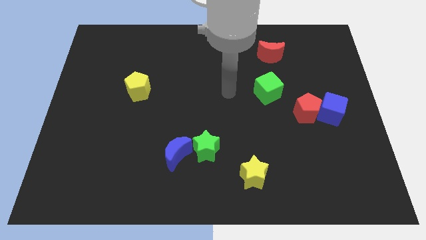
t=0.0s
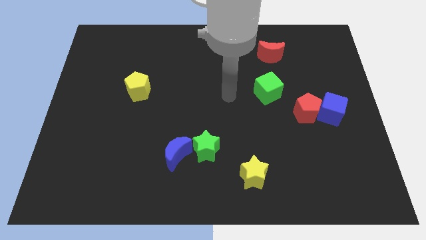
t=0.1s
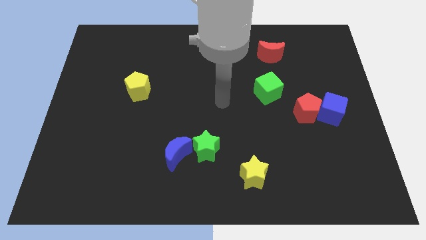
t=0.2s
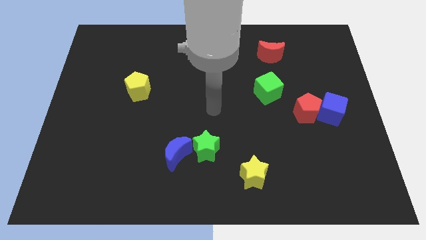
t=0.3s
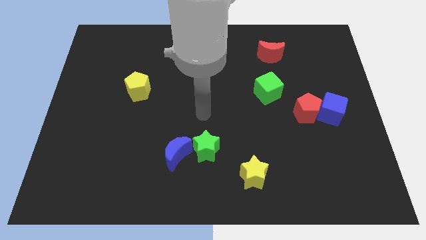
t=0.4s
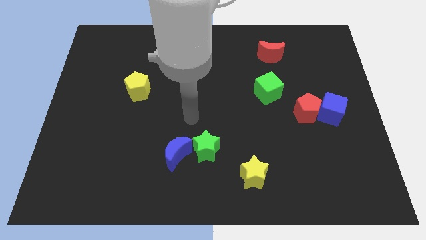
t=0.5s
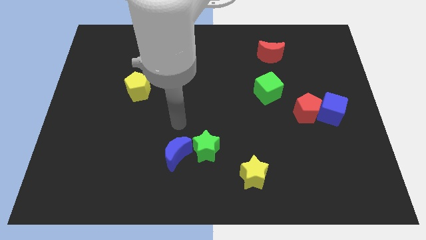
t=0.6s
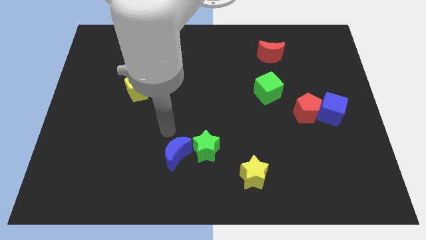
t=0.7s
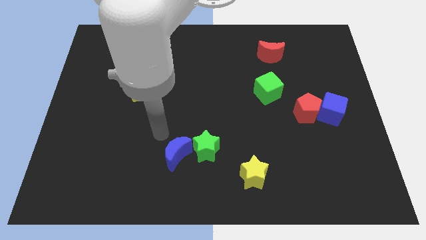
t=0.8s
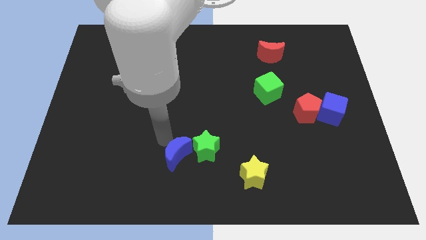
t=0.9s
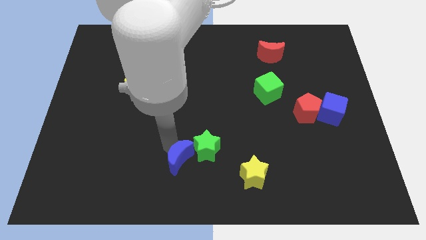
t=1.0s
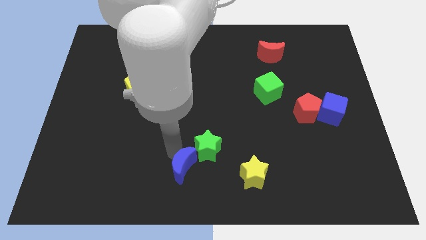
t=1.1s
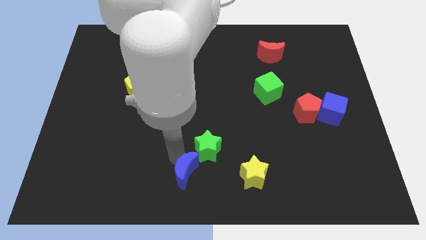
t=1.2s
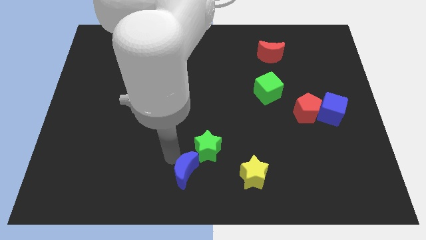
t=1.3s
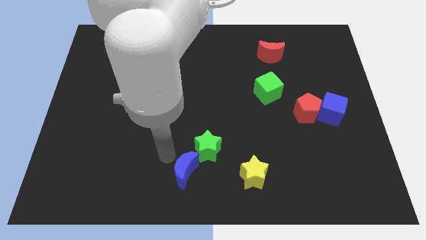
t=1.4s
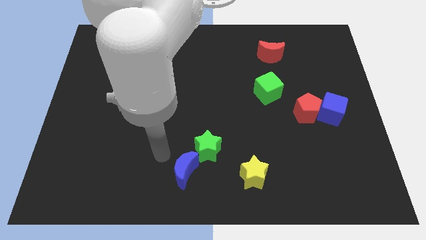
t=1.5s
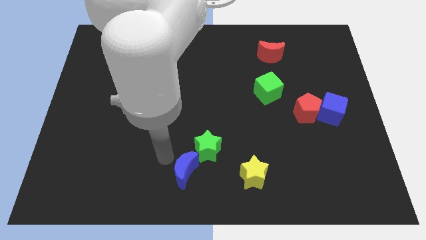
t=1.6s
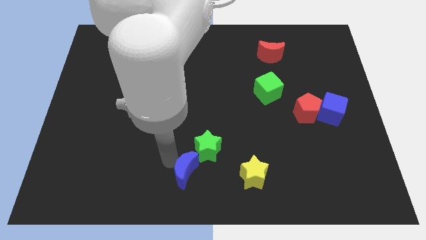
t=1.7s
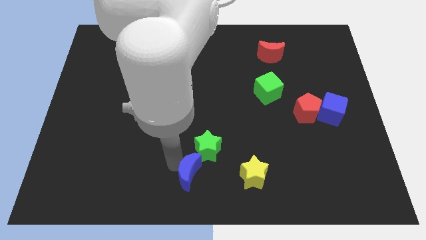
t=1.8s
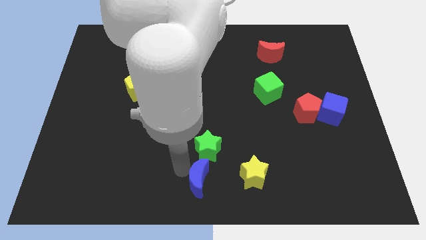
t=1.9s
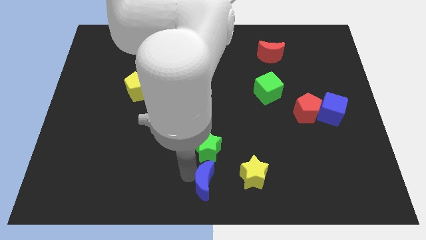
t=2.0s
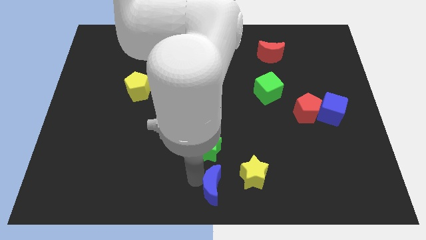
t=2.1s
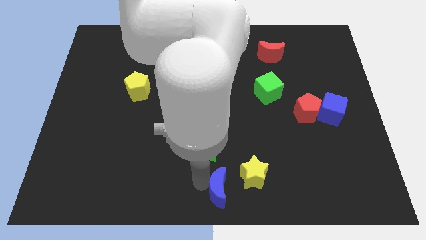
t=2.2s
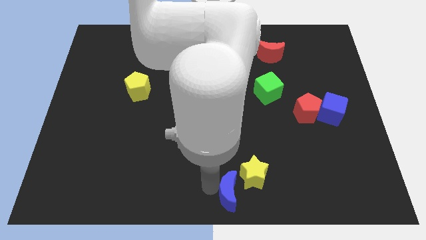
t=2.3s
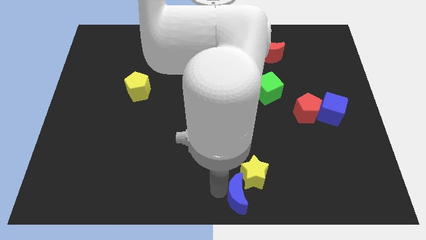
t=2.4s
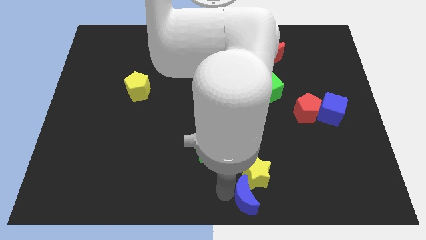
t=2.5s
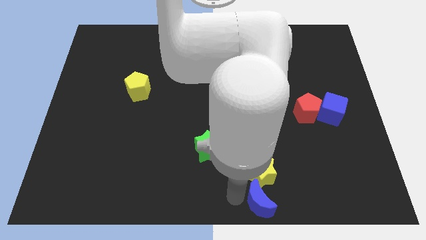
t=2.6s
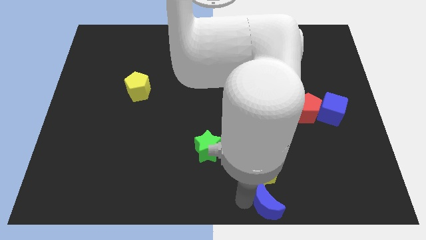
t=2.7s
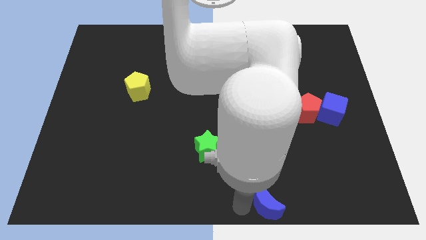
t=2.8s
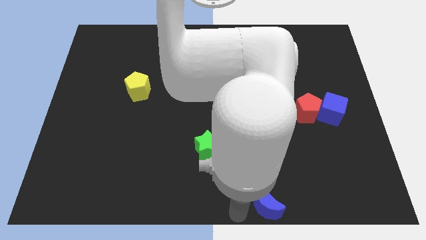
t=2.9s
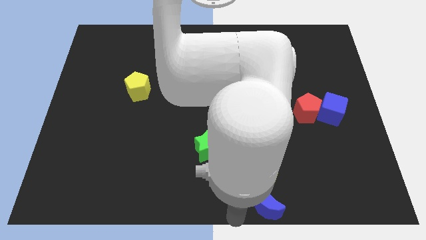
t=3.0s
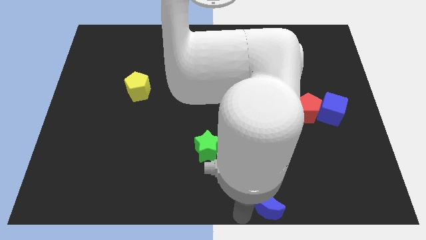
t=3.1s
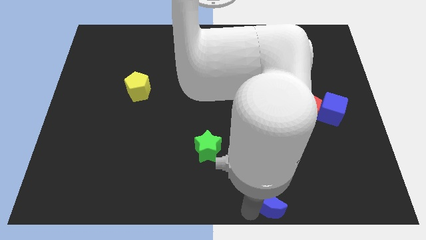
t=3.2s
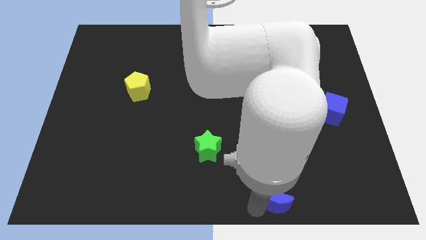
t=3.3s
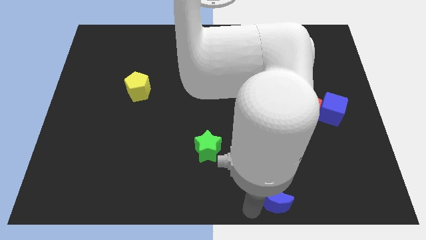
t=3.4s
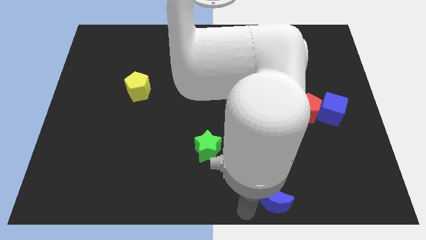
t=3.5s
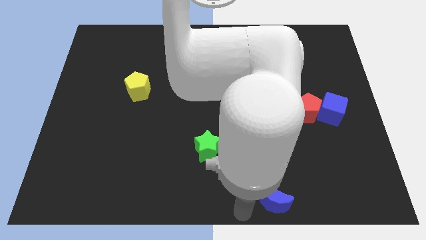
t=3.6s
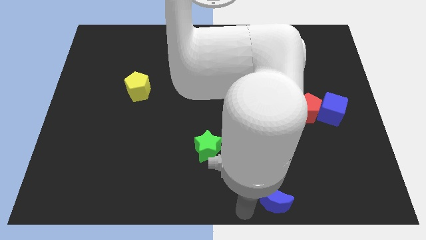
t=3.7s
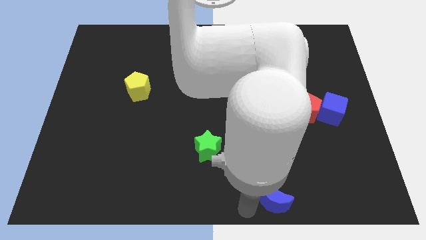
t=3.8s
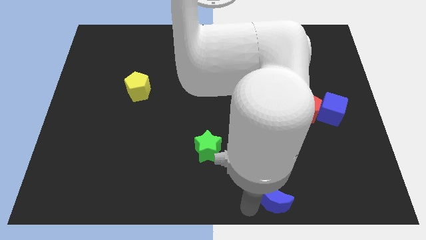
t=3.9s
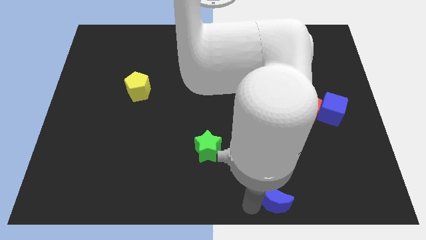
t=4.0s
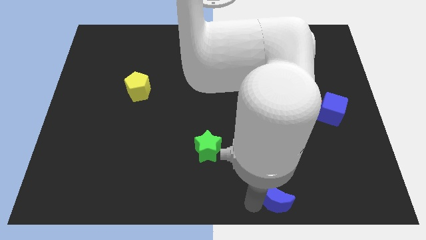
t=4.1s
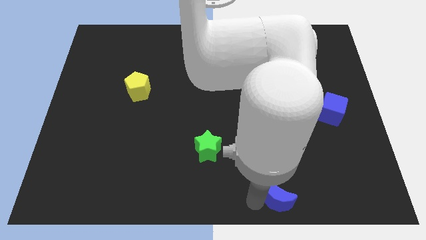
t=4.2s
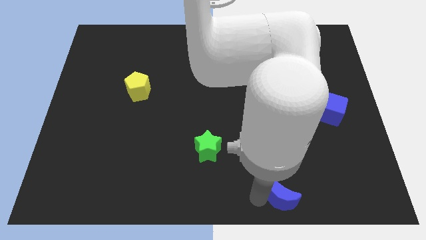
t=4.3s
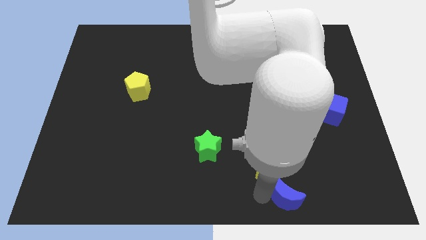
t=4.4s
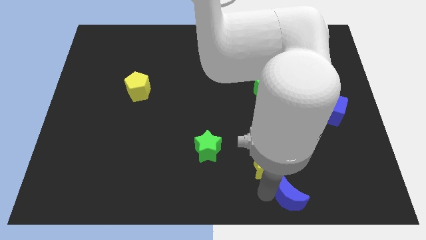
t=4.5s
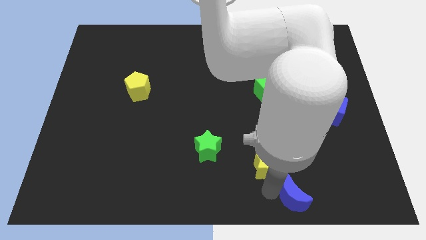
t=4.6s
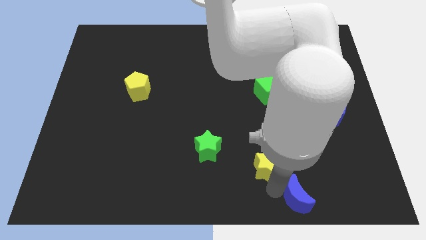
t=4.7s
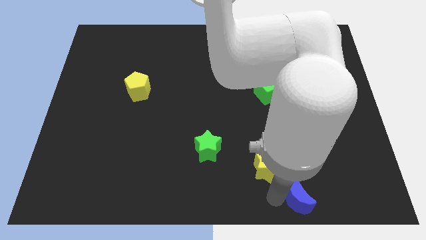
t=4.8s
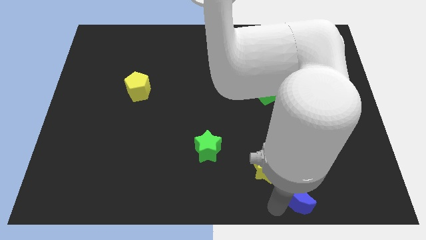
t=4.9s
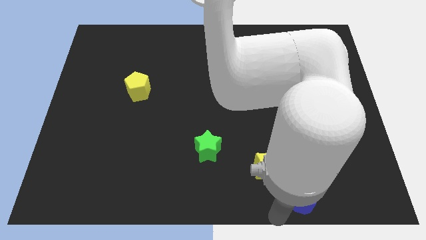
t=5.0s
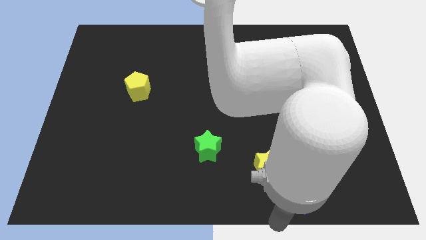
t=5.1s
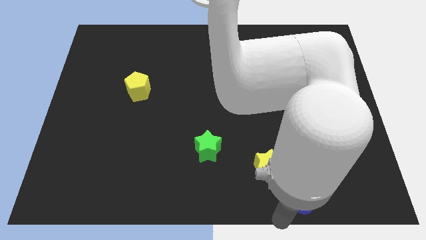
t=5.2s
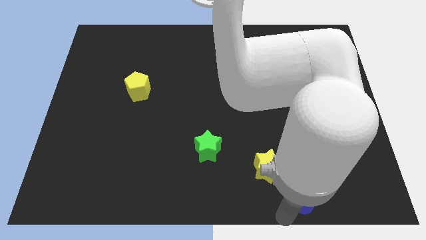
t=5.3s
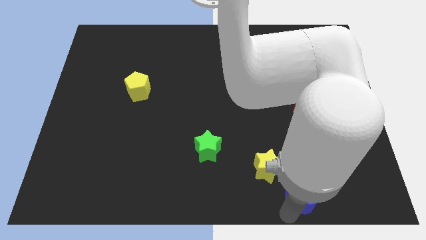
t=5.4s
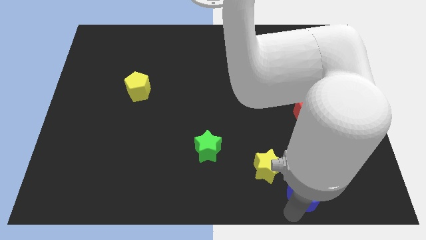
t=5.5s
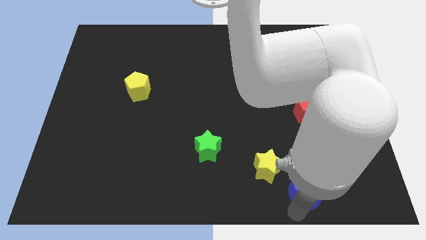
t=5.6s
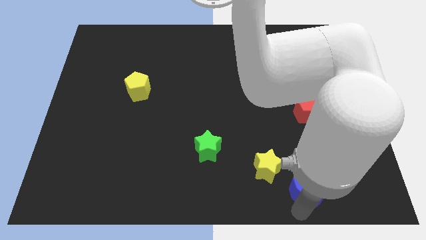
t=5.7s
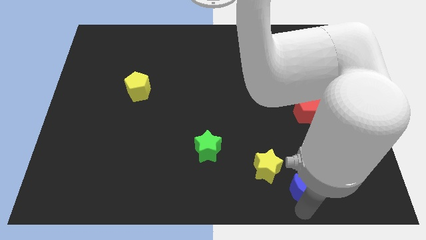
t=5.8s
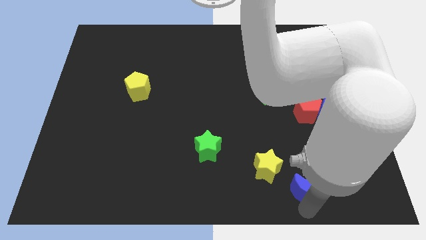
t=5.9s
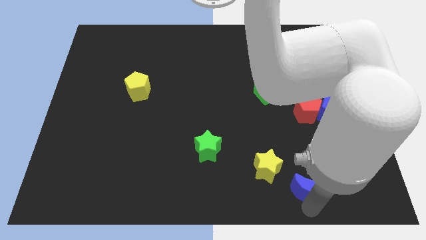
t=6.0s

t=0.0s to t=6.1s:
push the blue moon right of the yellow star
